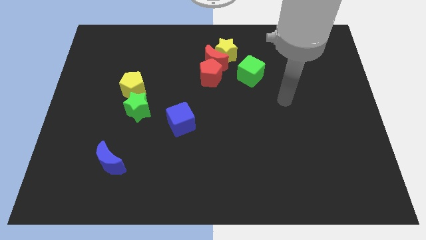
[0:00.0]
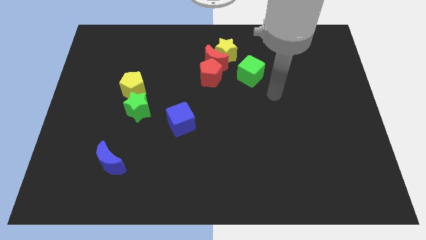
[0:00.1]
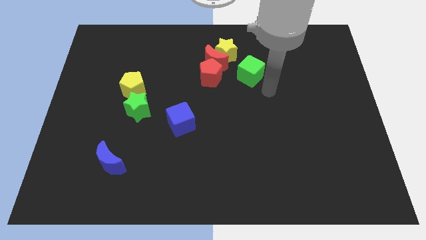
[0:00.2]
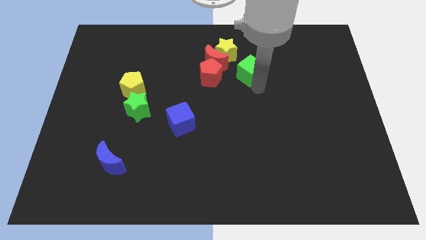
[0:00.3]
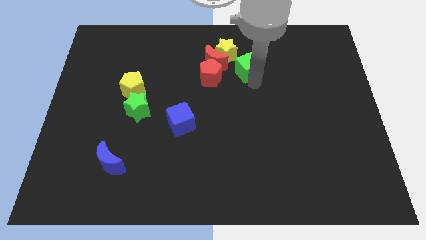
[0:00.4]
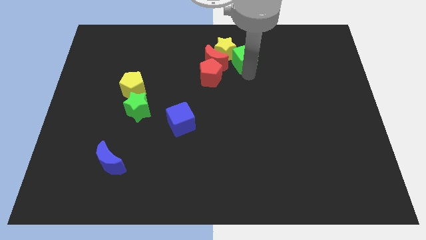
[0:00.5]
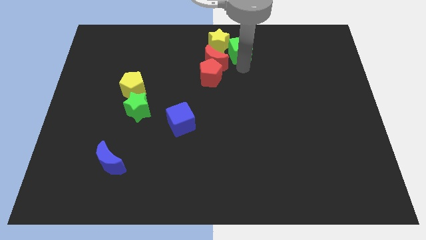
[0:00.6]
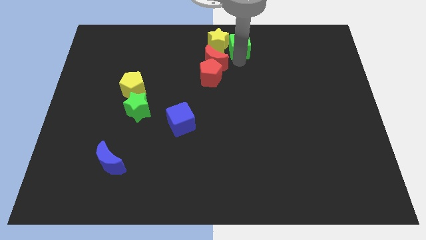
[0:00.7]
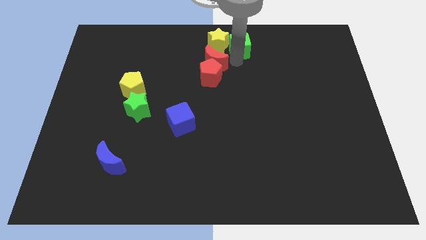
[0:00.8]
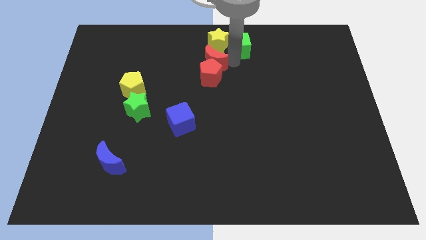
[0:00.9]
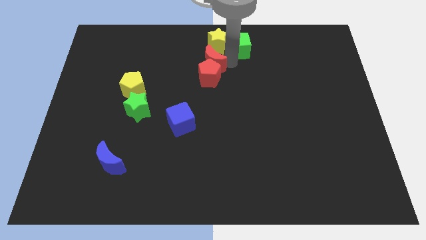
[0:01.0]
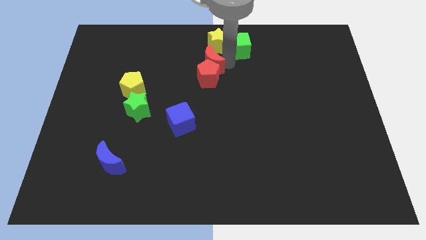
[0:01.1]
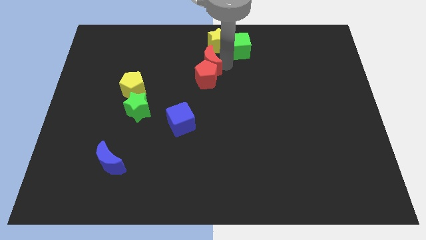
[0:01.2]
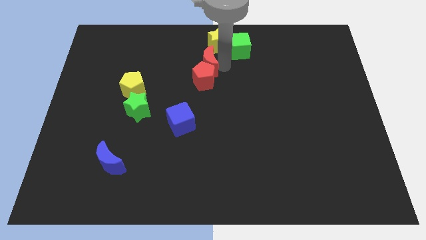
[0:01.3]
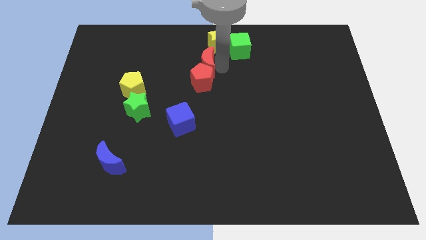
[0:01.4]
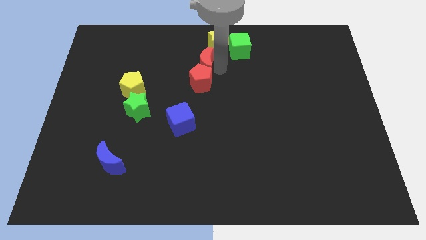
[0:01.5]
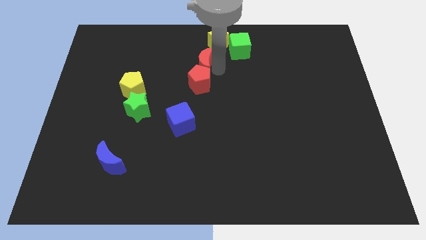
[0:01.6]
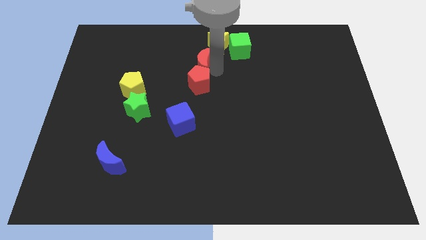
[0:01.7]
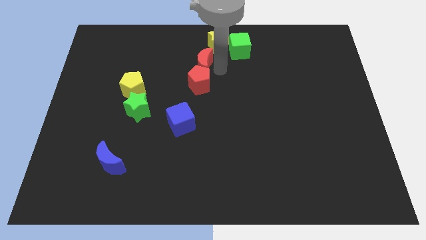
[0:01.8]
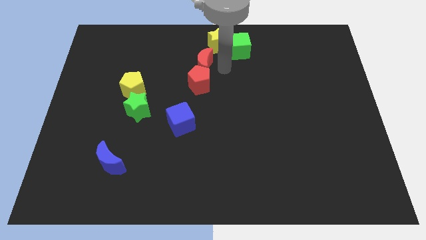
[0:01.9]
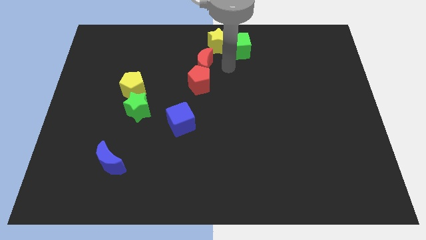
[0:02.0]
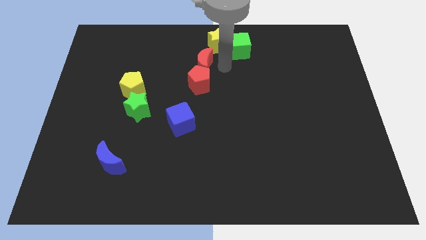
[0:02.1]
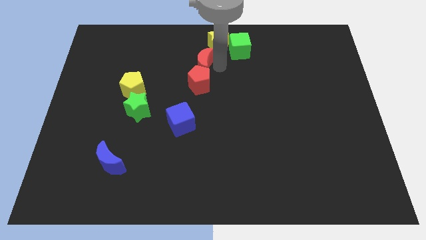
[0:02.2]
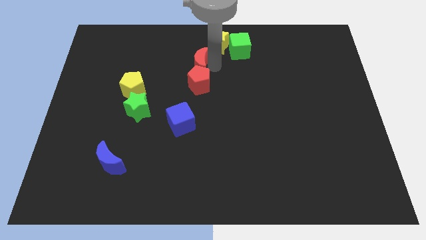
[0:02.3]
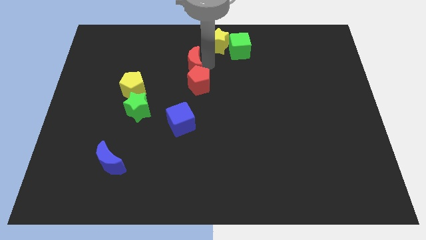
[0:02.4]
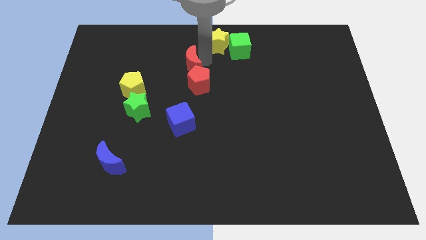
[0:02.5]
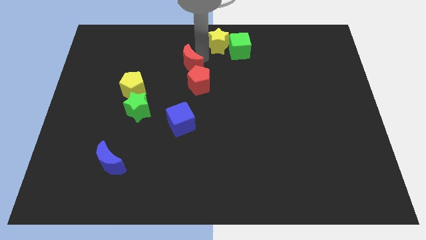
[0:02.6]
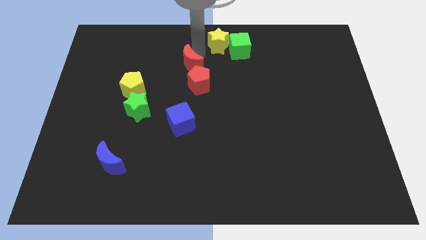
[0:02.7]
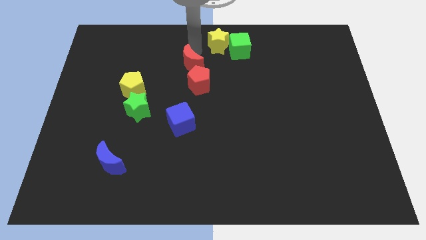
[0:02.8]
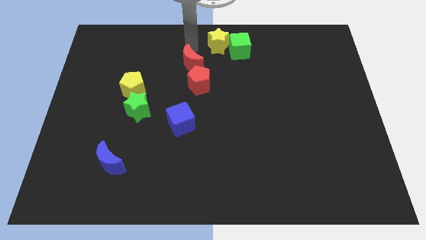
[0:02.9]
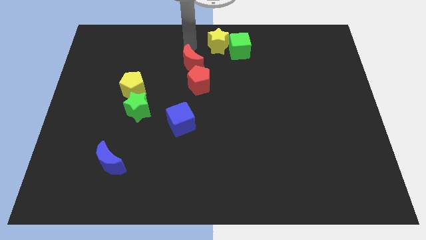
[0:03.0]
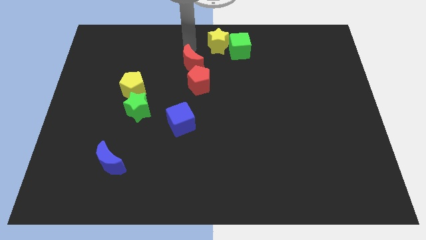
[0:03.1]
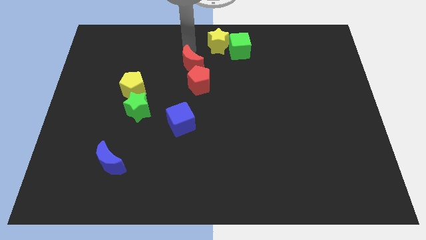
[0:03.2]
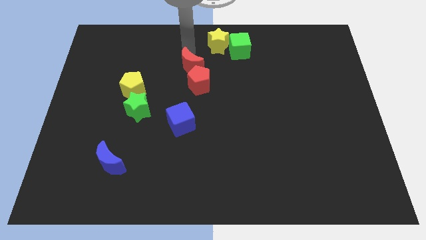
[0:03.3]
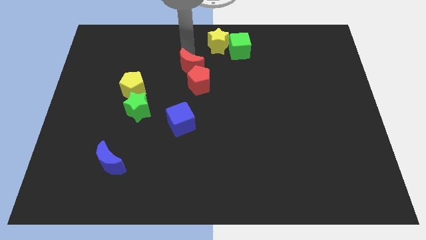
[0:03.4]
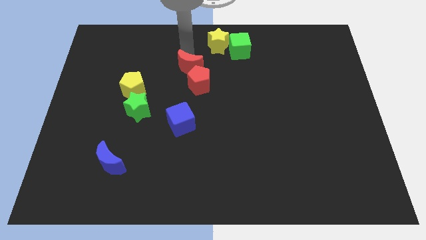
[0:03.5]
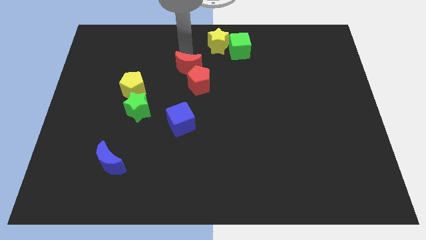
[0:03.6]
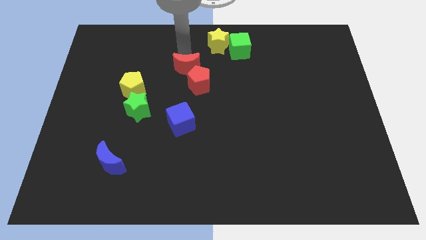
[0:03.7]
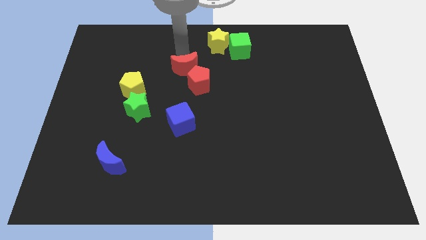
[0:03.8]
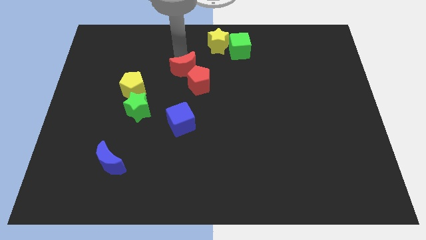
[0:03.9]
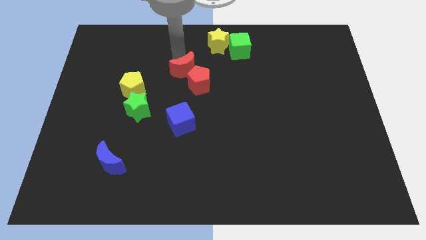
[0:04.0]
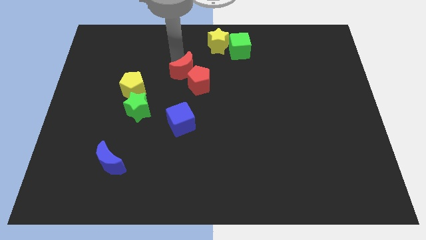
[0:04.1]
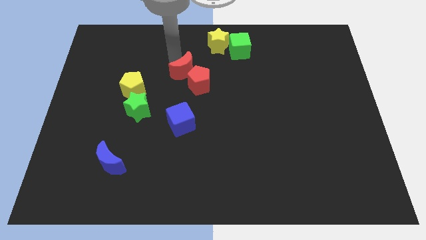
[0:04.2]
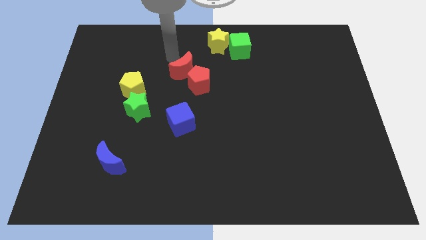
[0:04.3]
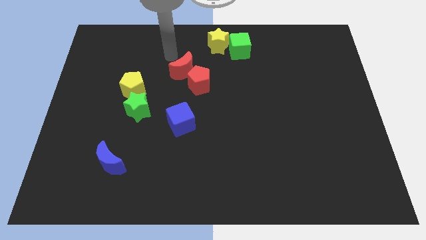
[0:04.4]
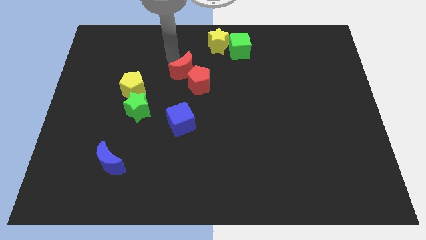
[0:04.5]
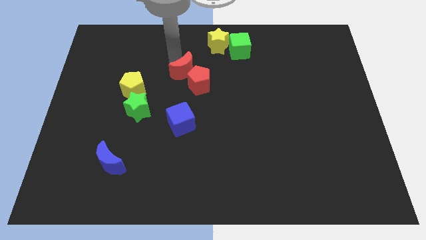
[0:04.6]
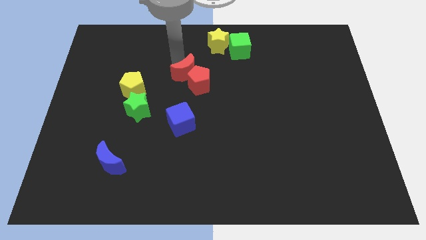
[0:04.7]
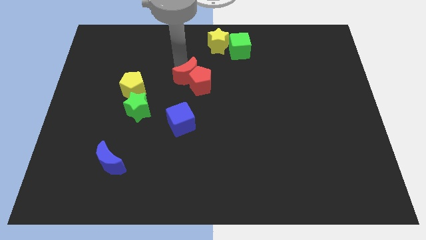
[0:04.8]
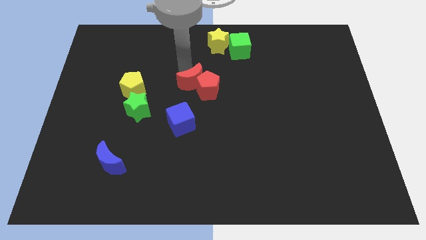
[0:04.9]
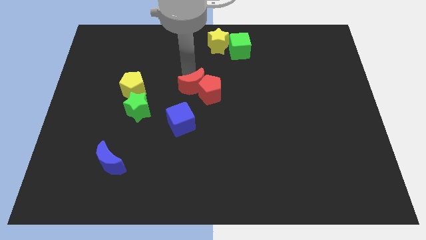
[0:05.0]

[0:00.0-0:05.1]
slightly move the red moon downwards

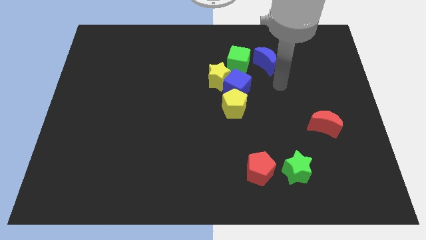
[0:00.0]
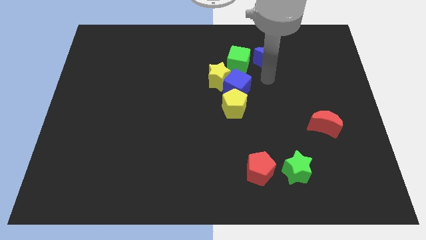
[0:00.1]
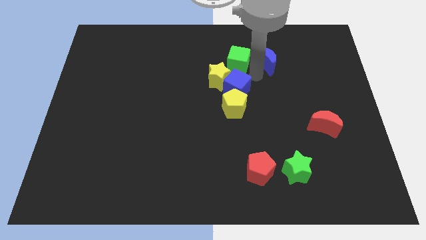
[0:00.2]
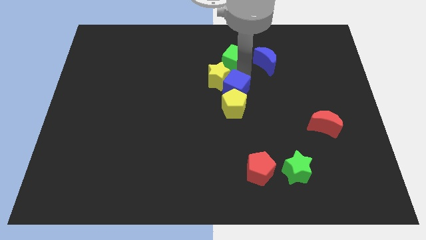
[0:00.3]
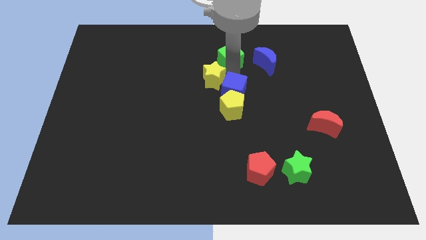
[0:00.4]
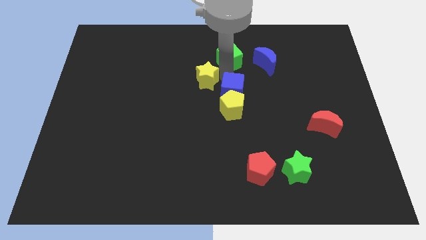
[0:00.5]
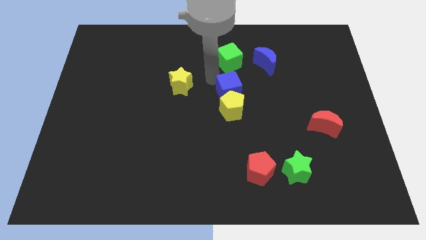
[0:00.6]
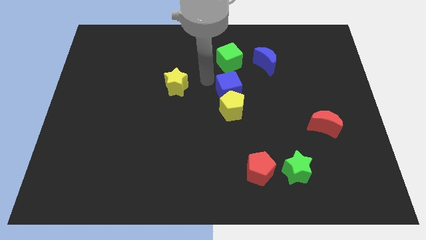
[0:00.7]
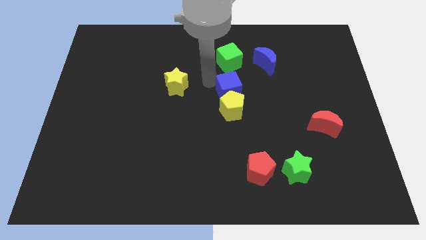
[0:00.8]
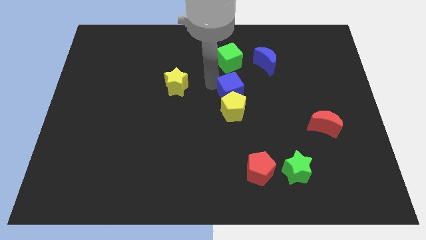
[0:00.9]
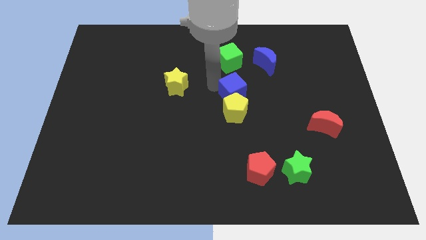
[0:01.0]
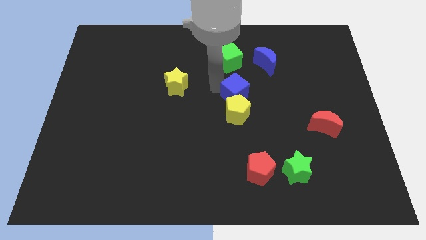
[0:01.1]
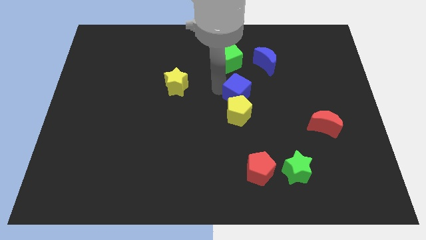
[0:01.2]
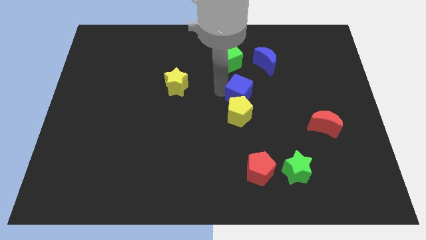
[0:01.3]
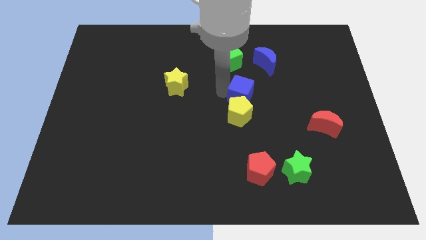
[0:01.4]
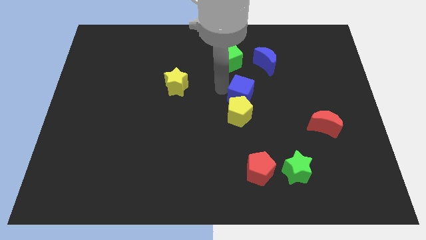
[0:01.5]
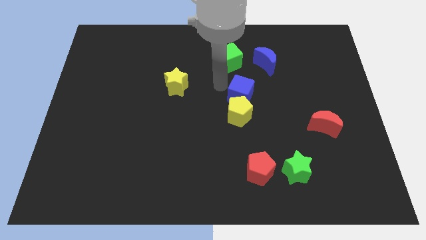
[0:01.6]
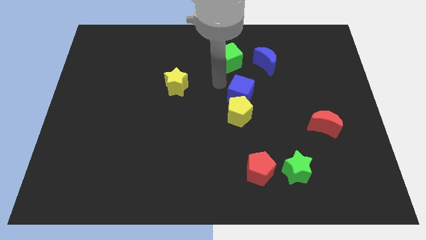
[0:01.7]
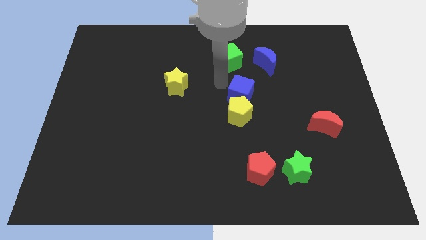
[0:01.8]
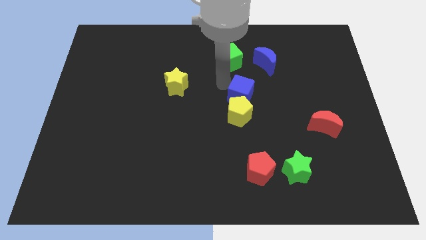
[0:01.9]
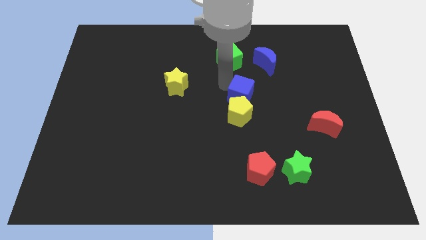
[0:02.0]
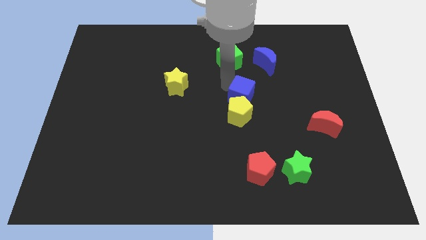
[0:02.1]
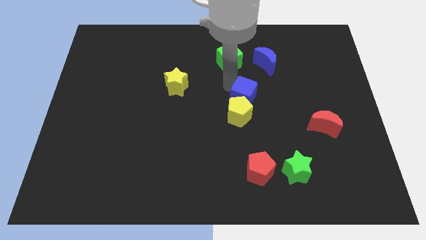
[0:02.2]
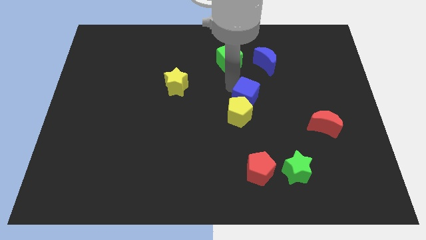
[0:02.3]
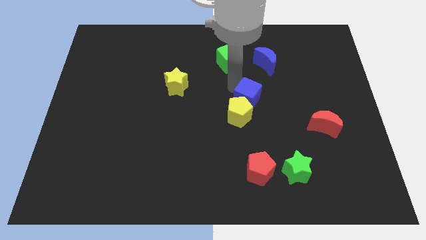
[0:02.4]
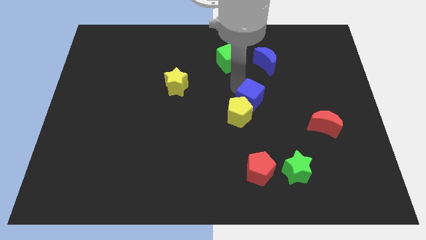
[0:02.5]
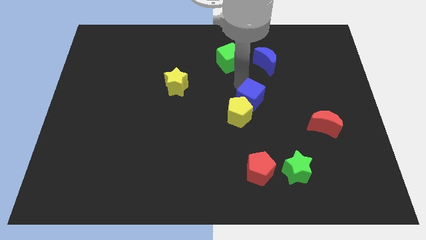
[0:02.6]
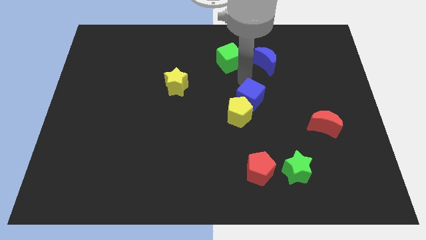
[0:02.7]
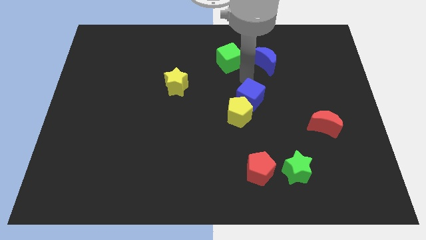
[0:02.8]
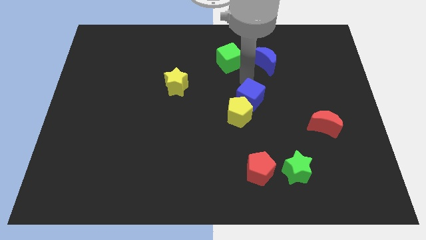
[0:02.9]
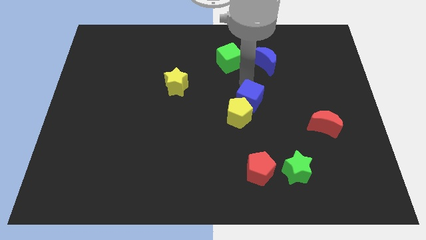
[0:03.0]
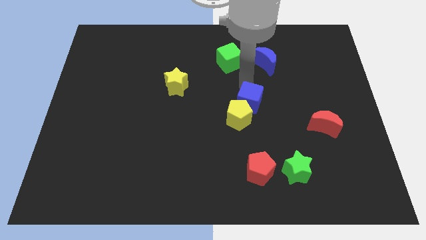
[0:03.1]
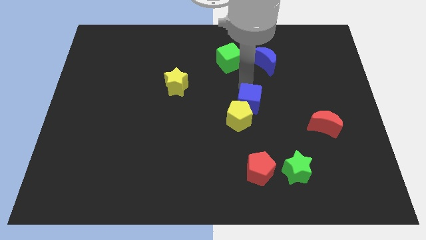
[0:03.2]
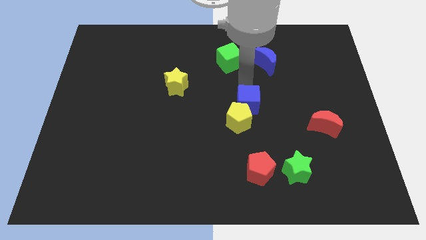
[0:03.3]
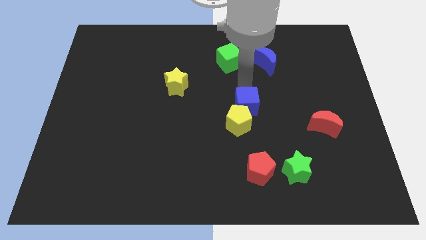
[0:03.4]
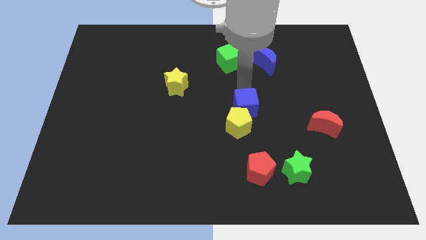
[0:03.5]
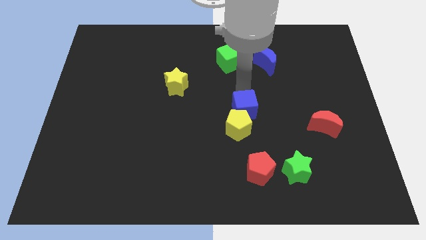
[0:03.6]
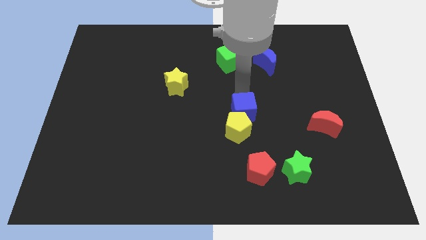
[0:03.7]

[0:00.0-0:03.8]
slightly push the blue cube downwards
